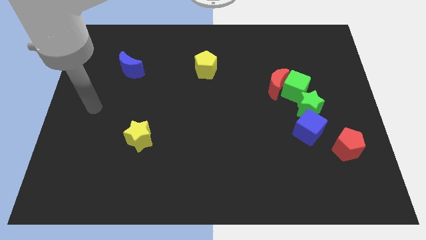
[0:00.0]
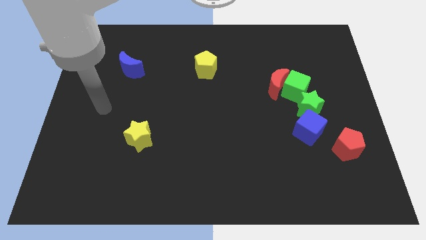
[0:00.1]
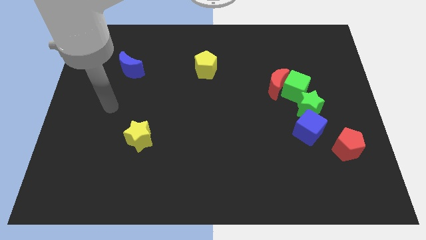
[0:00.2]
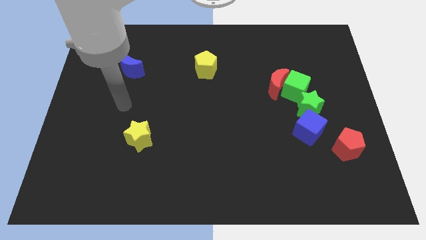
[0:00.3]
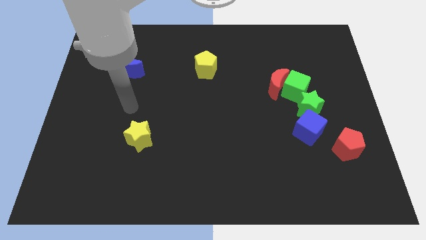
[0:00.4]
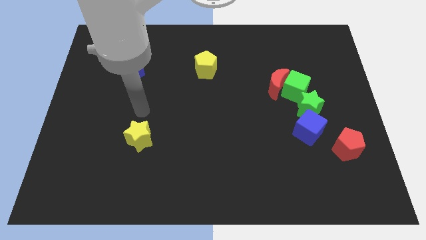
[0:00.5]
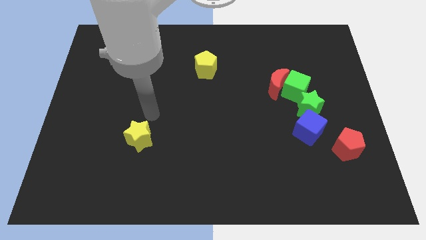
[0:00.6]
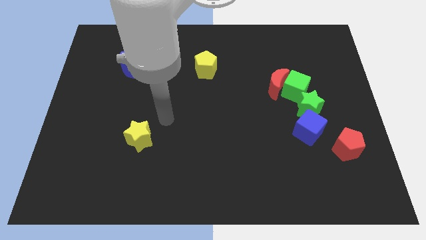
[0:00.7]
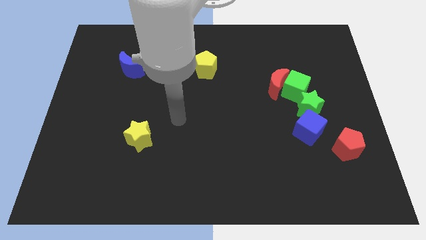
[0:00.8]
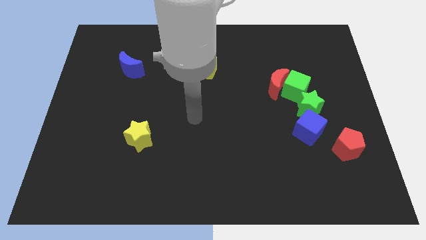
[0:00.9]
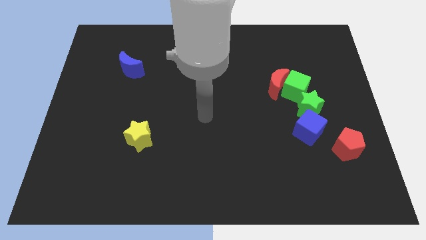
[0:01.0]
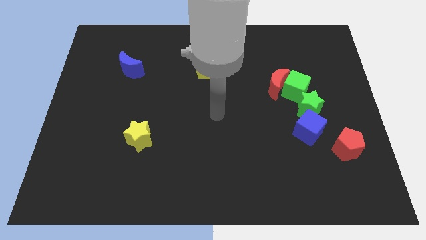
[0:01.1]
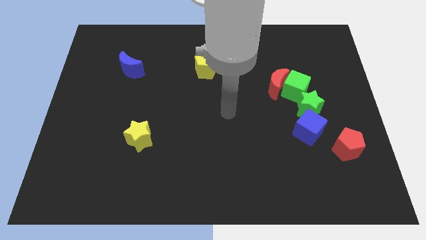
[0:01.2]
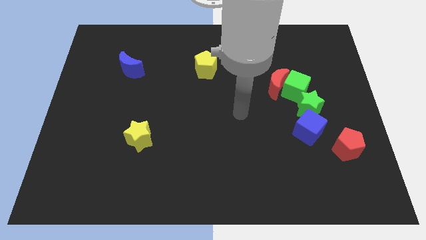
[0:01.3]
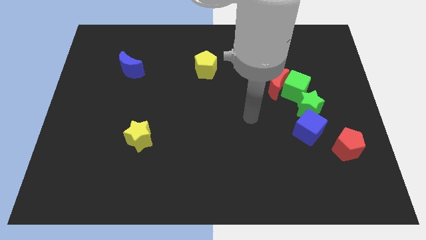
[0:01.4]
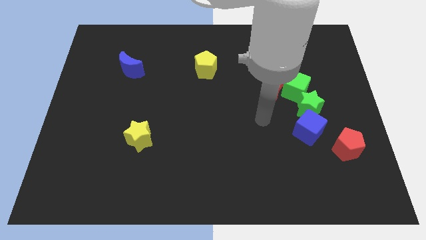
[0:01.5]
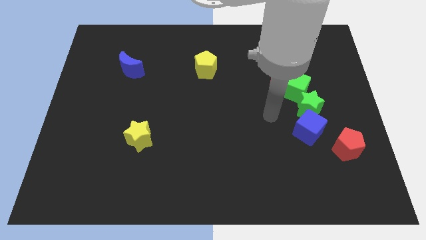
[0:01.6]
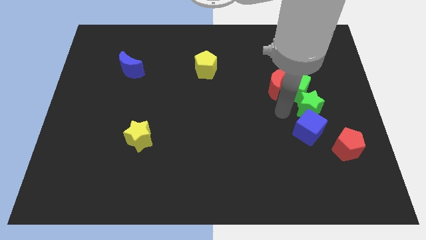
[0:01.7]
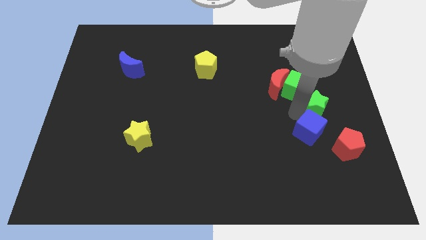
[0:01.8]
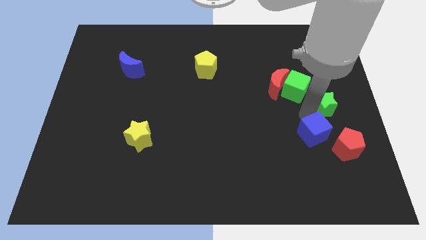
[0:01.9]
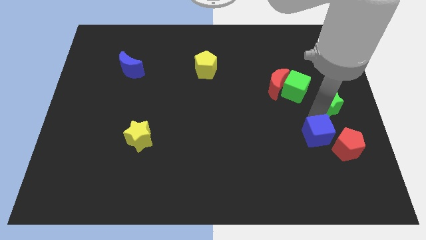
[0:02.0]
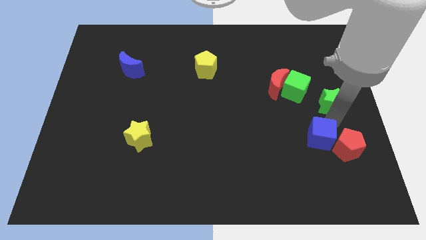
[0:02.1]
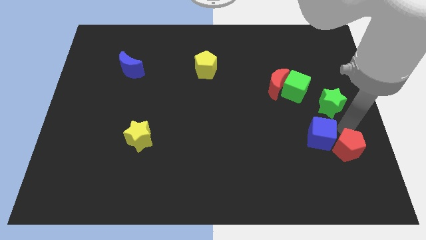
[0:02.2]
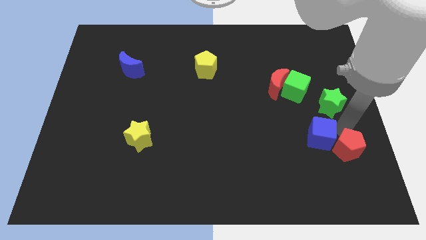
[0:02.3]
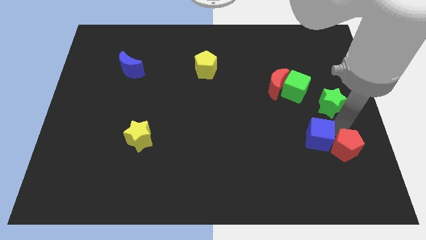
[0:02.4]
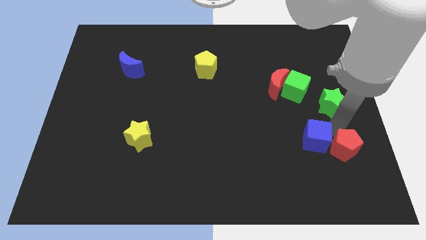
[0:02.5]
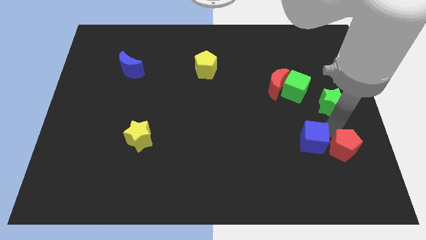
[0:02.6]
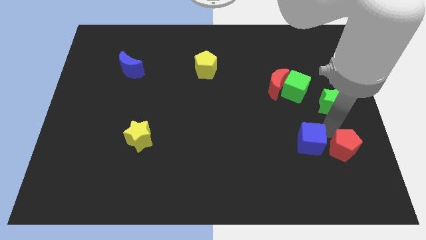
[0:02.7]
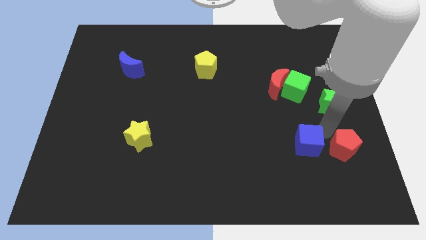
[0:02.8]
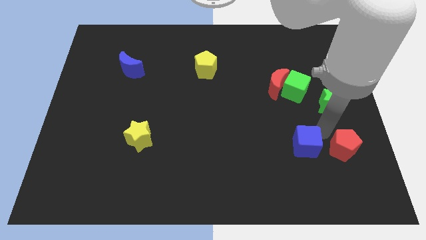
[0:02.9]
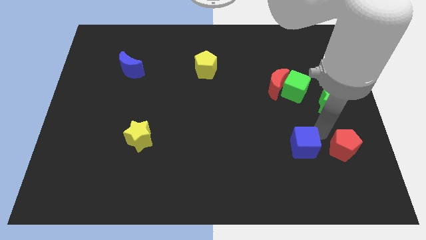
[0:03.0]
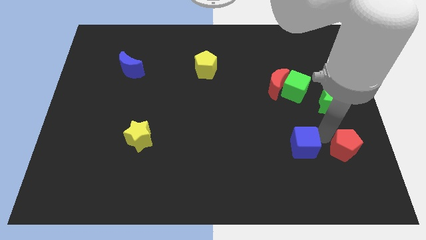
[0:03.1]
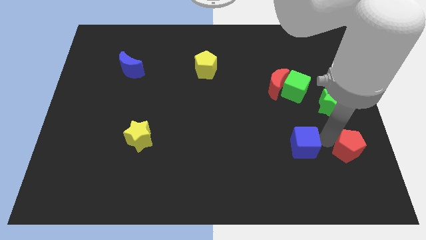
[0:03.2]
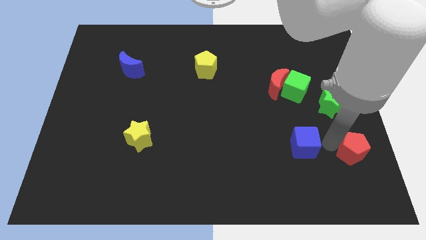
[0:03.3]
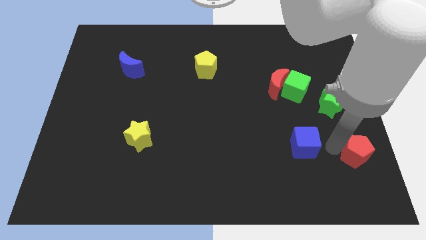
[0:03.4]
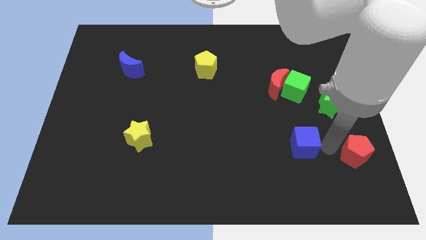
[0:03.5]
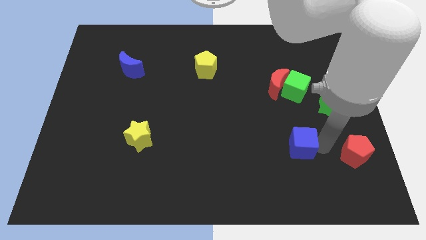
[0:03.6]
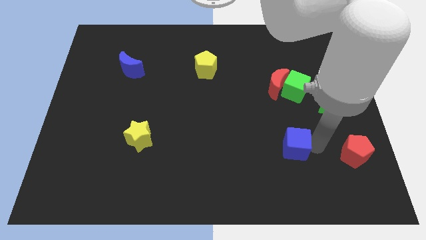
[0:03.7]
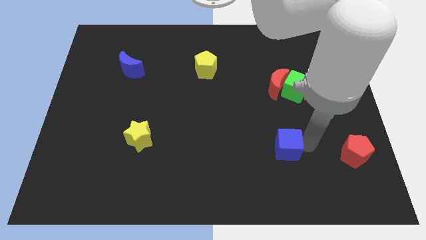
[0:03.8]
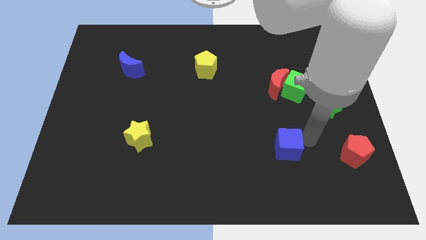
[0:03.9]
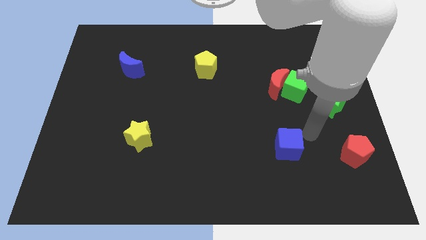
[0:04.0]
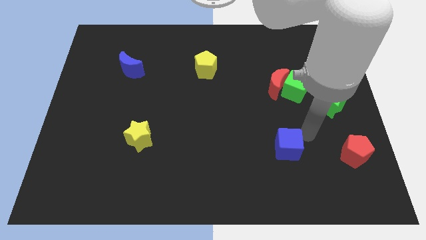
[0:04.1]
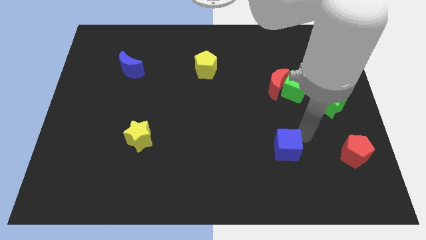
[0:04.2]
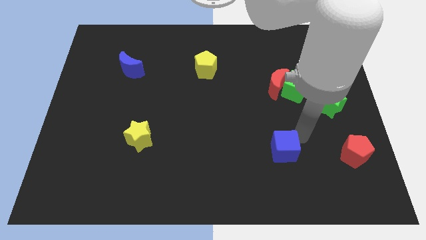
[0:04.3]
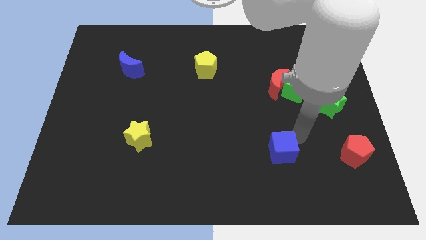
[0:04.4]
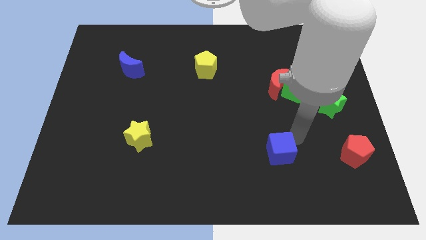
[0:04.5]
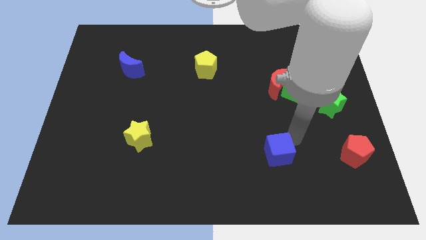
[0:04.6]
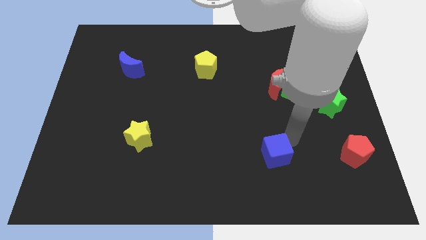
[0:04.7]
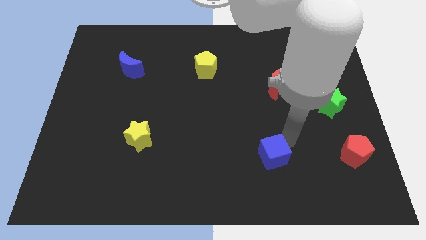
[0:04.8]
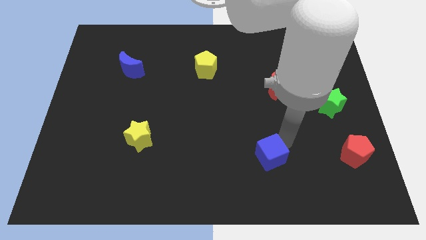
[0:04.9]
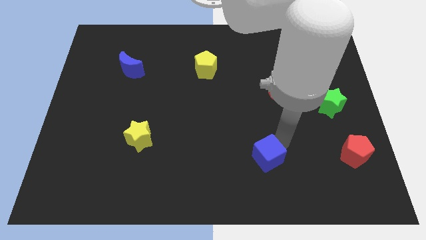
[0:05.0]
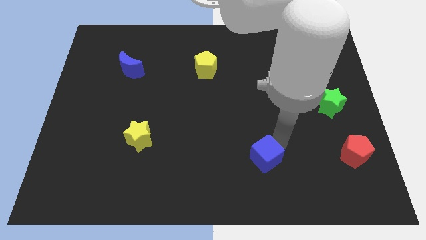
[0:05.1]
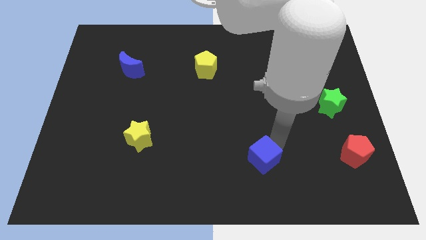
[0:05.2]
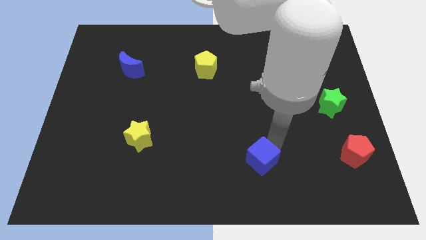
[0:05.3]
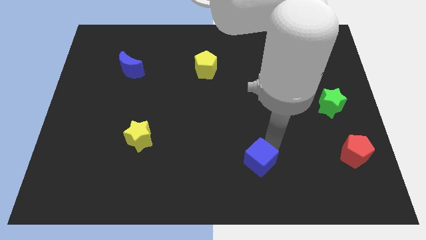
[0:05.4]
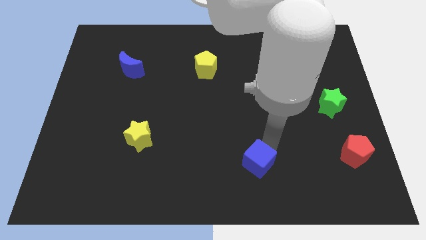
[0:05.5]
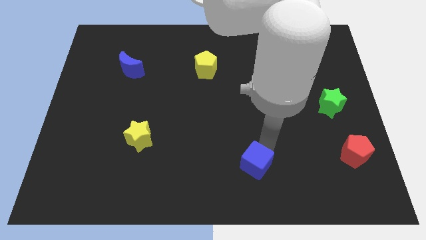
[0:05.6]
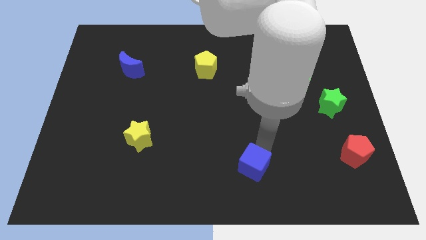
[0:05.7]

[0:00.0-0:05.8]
move the blue cube to the bottom side

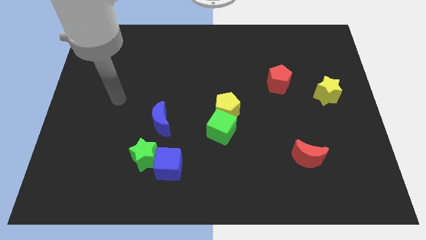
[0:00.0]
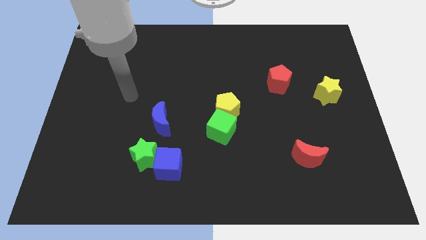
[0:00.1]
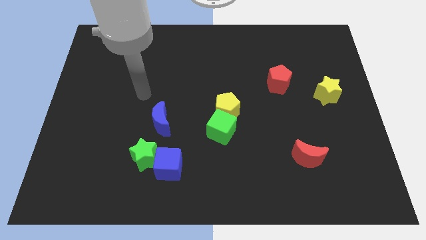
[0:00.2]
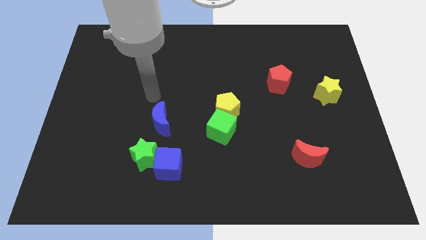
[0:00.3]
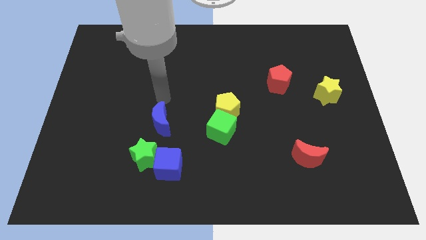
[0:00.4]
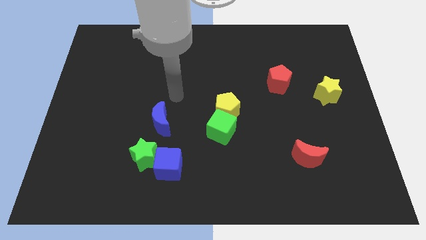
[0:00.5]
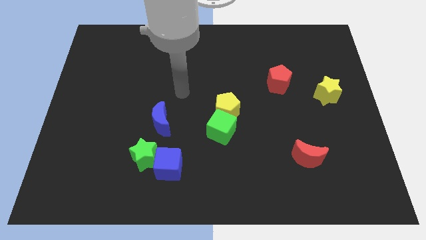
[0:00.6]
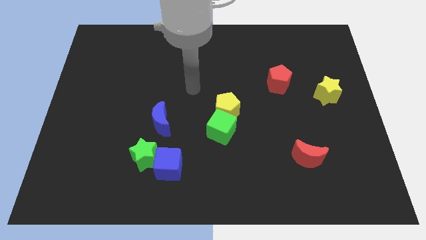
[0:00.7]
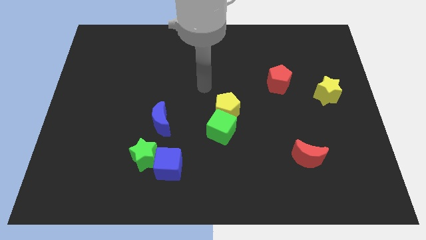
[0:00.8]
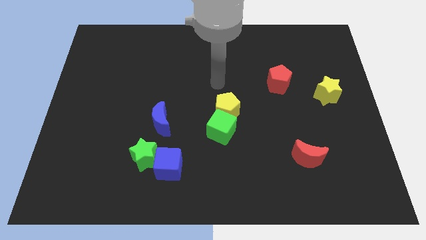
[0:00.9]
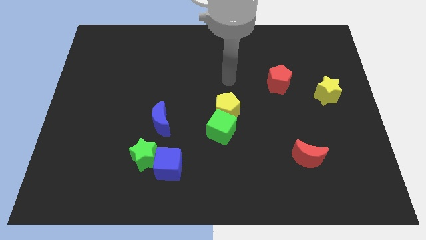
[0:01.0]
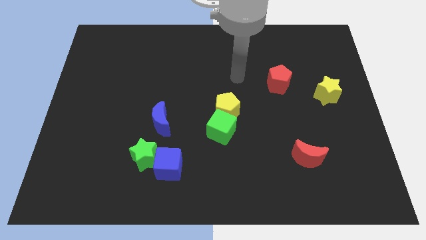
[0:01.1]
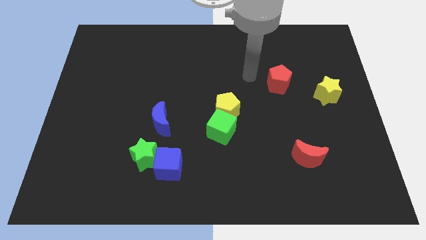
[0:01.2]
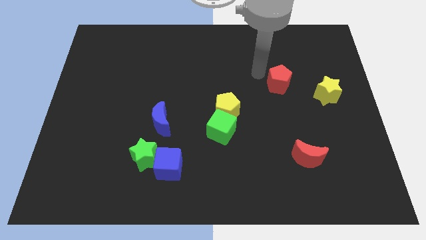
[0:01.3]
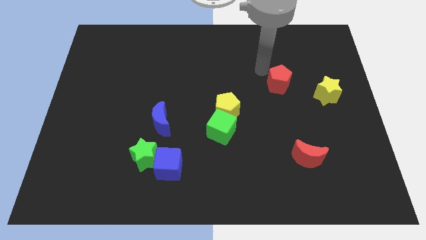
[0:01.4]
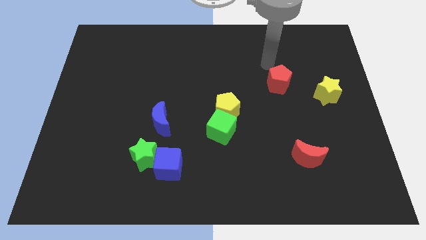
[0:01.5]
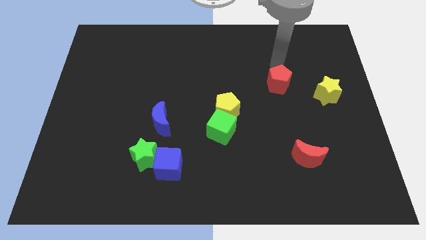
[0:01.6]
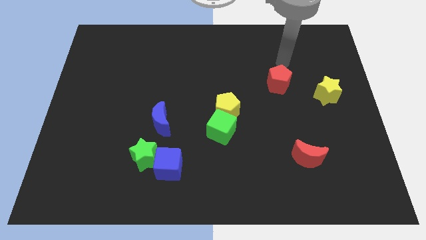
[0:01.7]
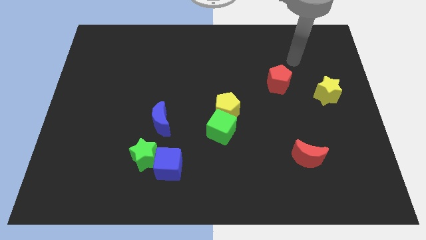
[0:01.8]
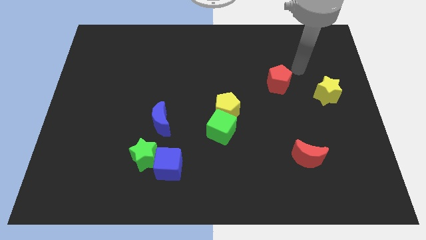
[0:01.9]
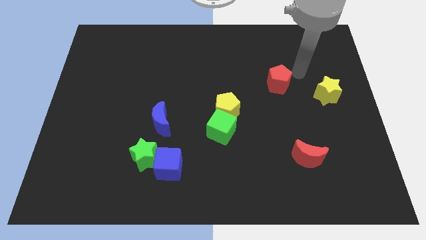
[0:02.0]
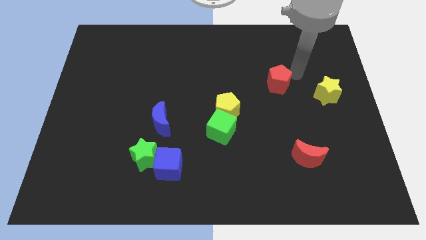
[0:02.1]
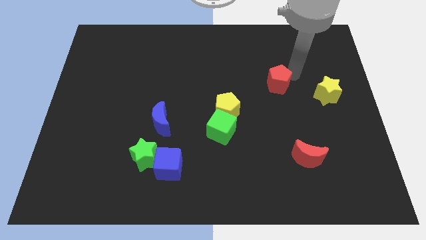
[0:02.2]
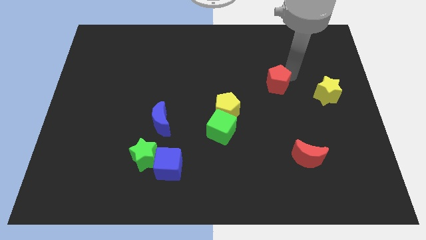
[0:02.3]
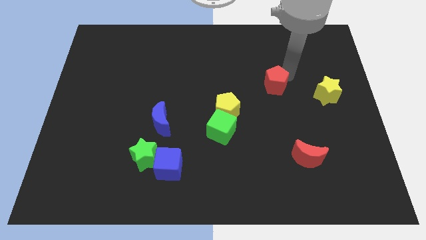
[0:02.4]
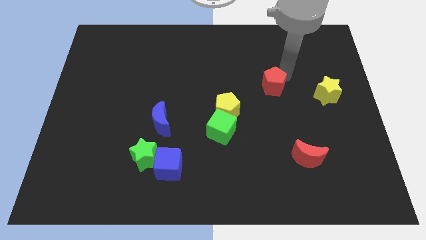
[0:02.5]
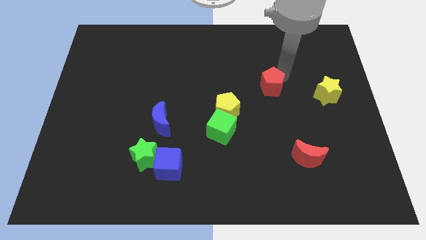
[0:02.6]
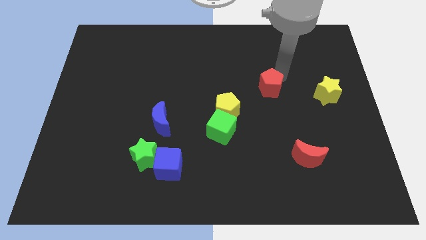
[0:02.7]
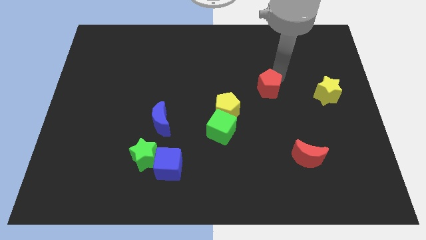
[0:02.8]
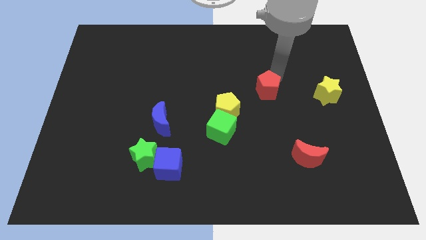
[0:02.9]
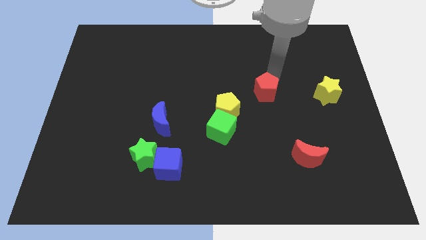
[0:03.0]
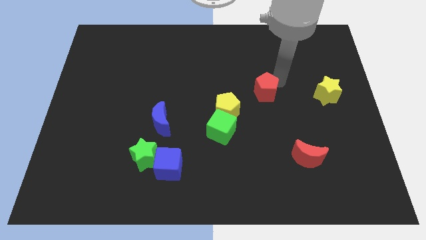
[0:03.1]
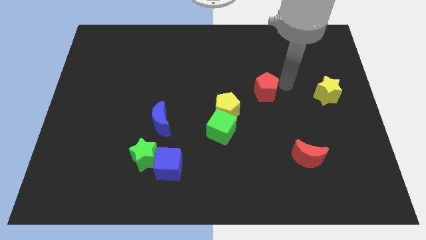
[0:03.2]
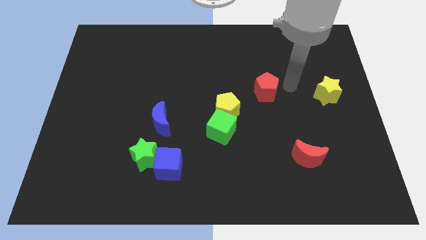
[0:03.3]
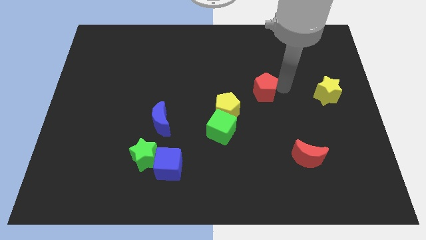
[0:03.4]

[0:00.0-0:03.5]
slide the red pentagon to the middle of the board
